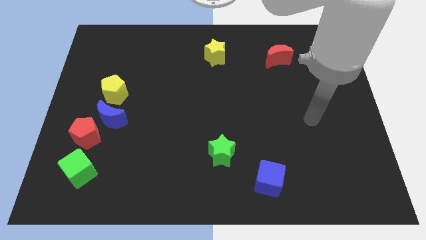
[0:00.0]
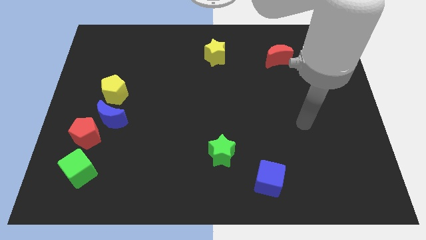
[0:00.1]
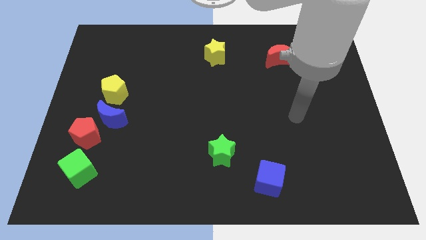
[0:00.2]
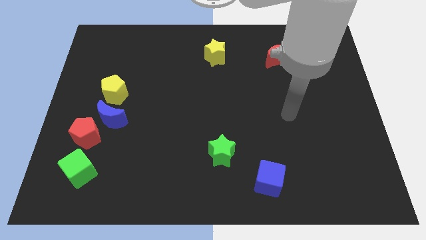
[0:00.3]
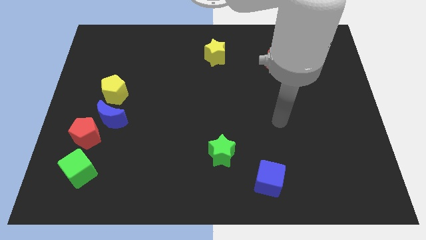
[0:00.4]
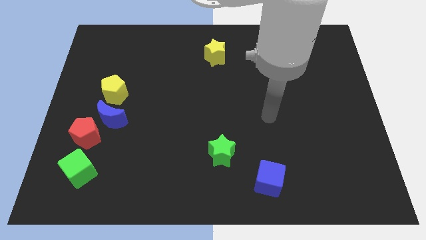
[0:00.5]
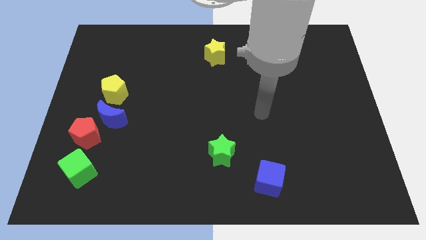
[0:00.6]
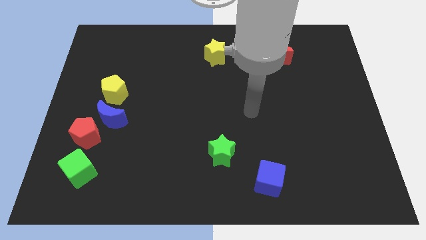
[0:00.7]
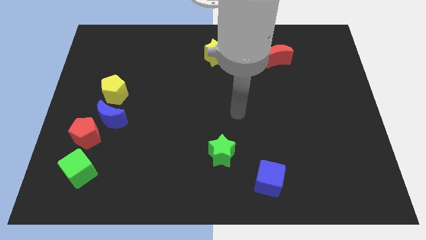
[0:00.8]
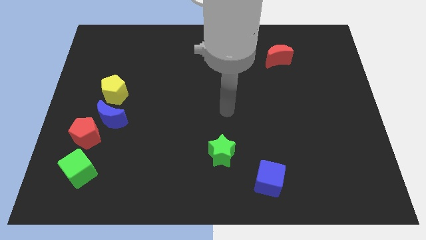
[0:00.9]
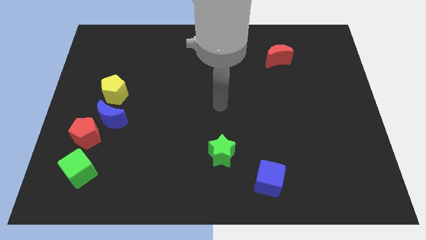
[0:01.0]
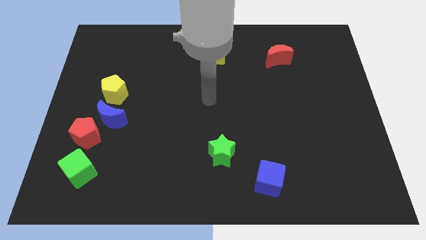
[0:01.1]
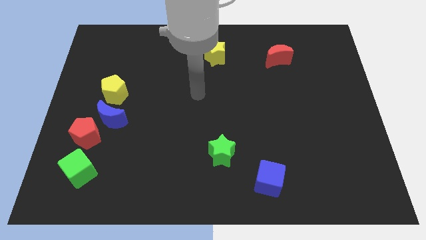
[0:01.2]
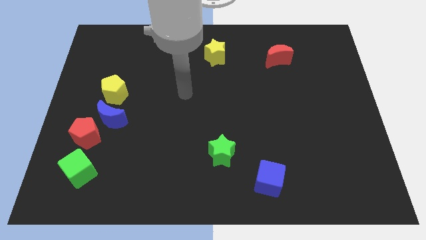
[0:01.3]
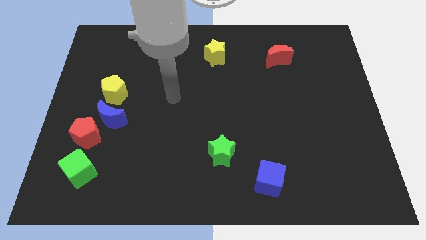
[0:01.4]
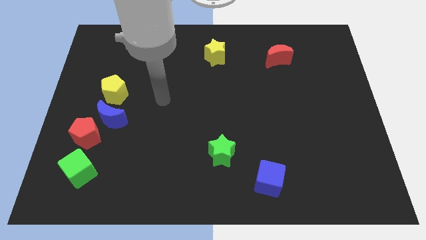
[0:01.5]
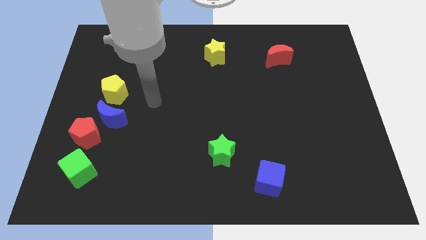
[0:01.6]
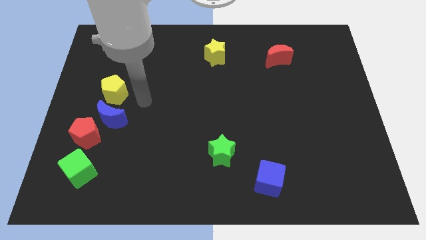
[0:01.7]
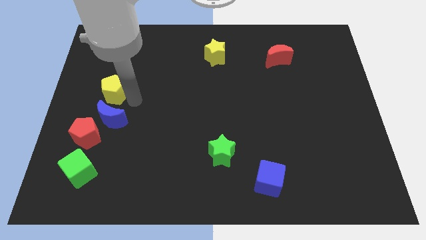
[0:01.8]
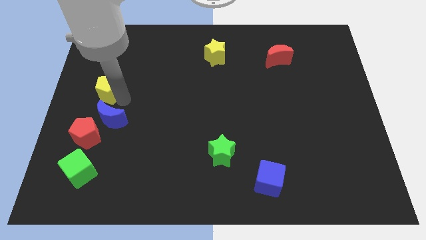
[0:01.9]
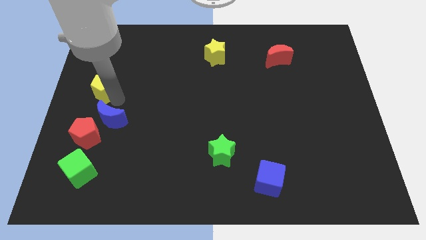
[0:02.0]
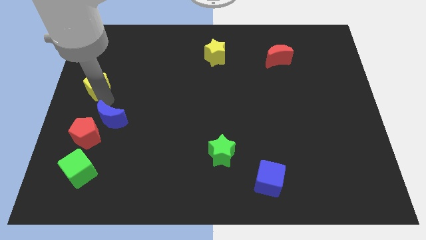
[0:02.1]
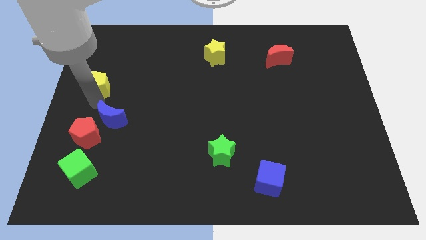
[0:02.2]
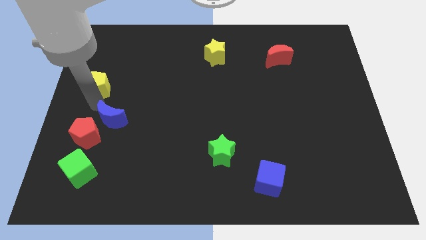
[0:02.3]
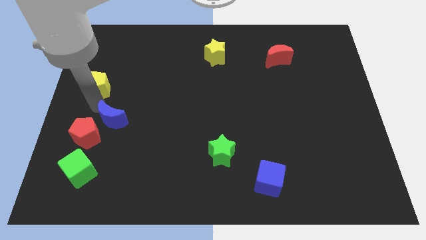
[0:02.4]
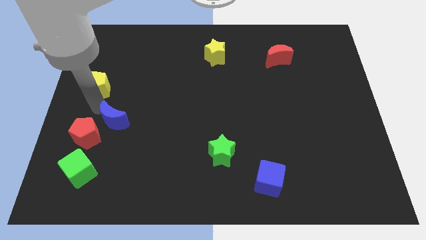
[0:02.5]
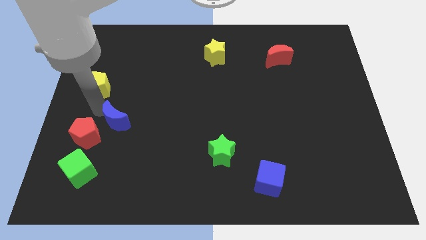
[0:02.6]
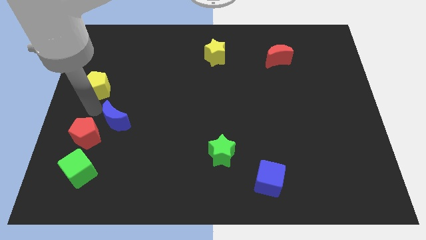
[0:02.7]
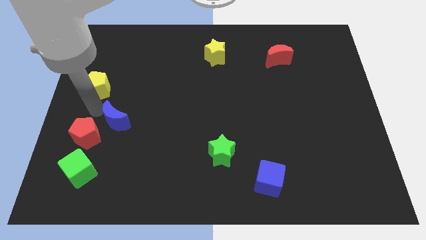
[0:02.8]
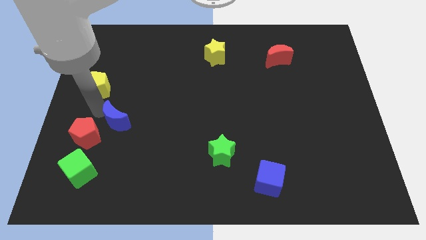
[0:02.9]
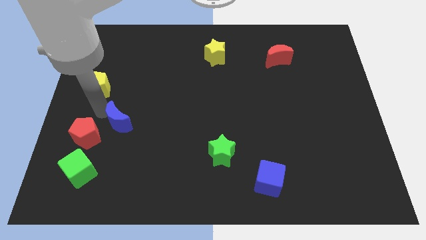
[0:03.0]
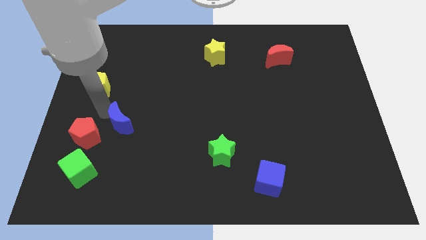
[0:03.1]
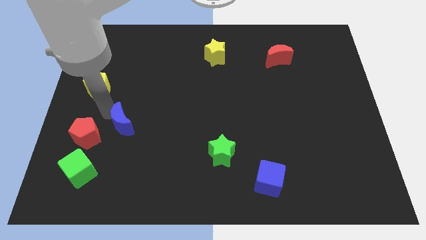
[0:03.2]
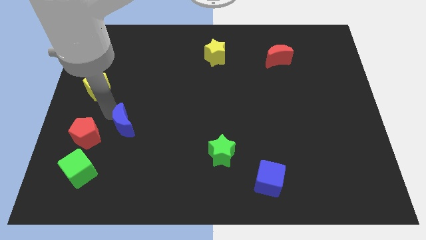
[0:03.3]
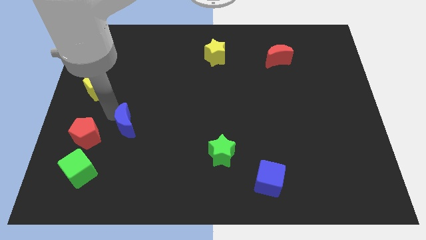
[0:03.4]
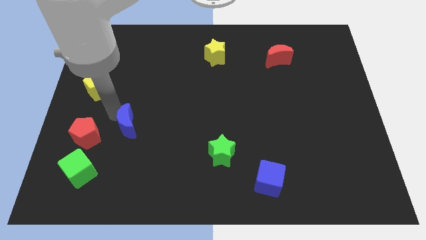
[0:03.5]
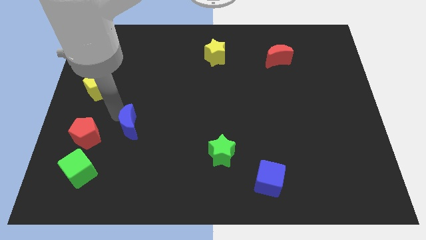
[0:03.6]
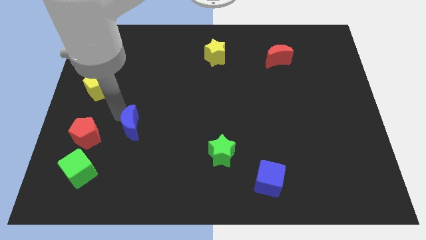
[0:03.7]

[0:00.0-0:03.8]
separate the blue moon from the red pentagon and yellow pentagon

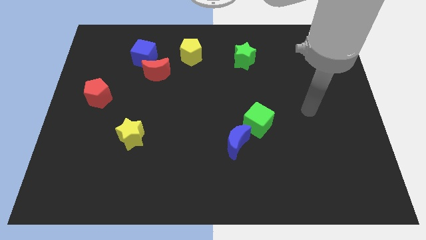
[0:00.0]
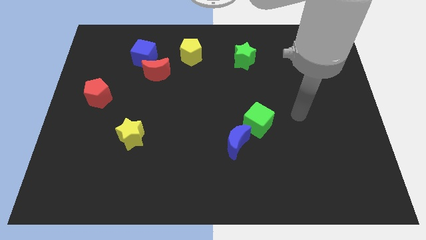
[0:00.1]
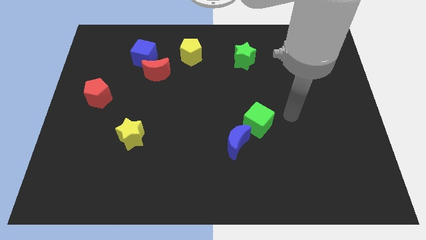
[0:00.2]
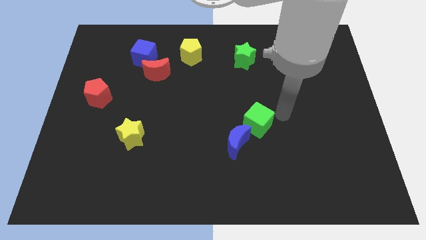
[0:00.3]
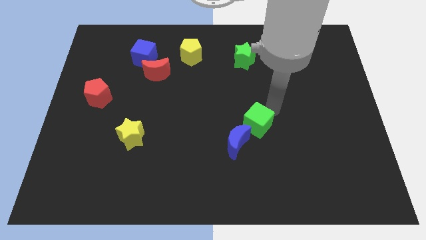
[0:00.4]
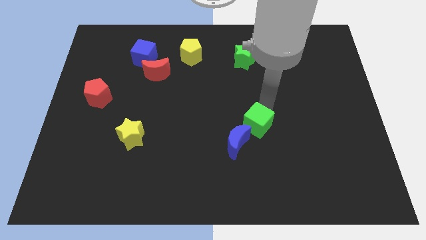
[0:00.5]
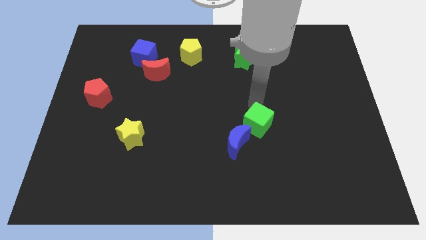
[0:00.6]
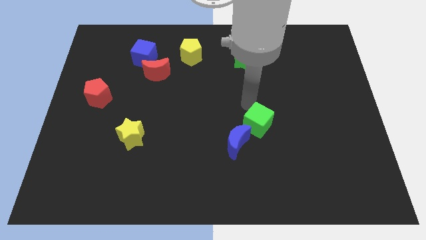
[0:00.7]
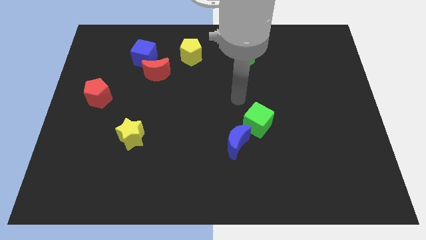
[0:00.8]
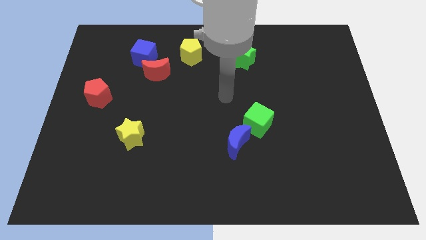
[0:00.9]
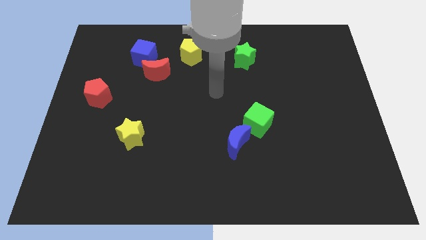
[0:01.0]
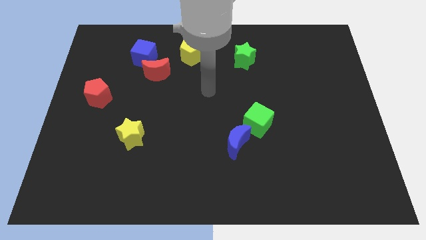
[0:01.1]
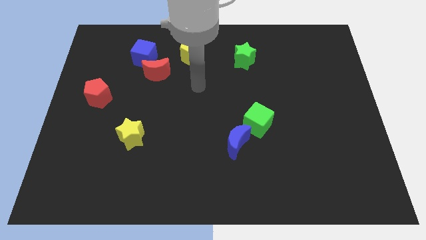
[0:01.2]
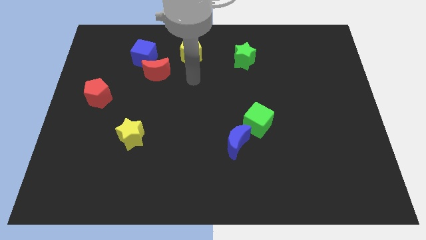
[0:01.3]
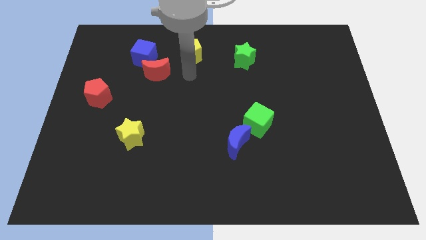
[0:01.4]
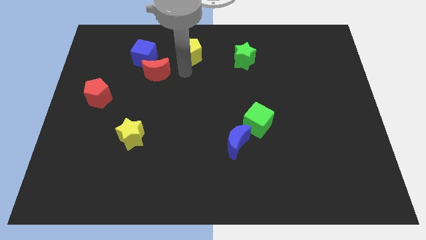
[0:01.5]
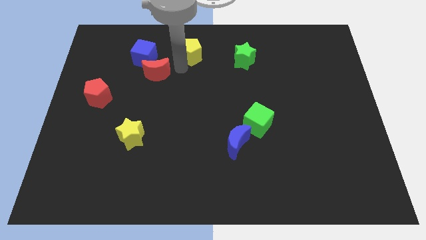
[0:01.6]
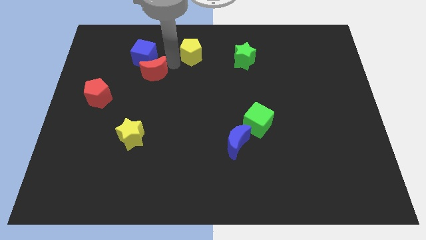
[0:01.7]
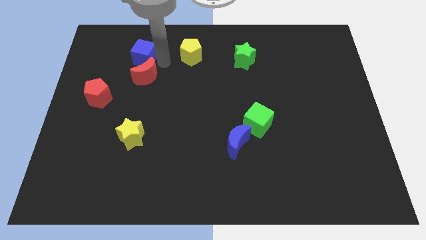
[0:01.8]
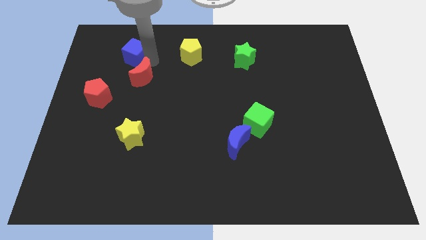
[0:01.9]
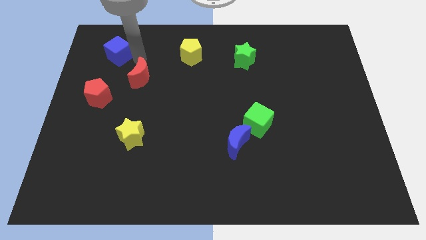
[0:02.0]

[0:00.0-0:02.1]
move the red moon away from the blue cube

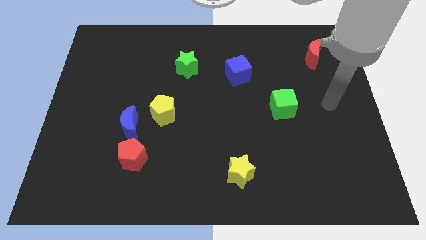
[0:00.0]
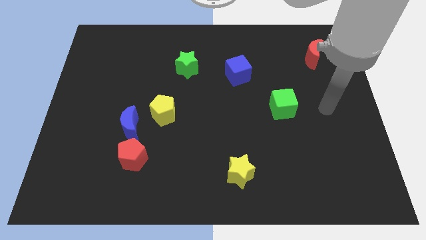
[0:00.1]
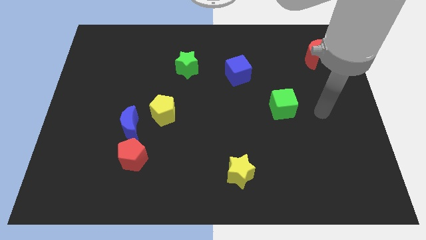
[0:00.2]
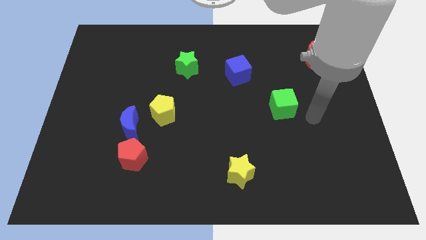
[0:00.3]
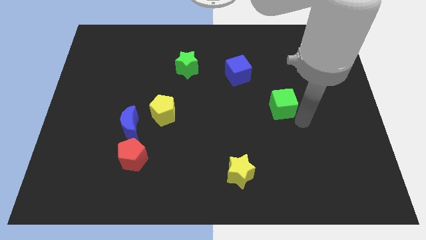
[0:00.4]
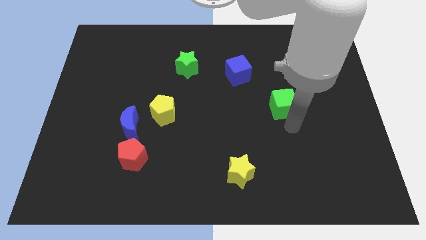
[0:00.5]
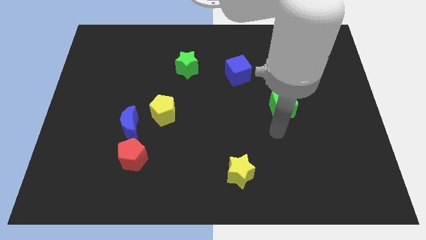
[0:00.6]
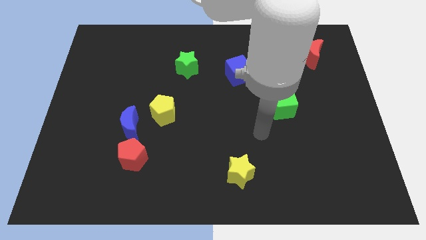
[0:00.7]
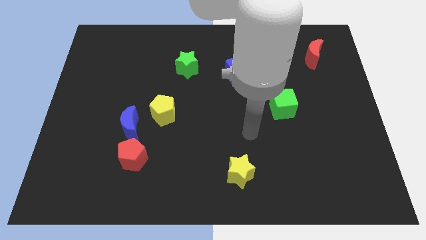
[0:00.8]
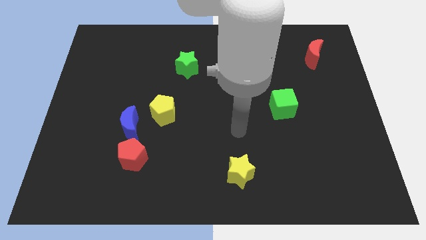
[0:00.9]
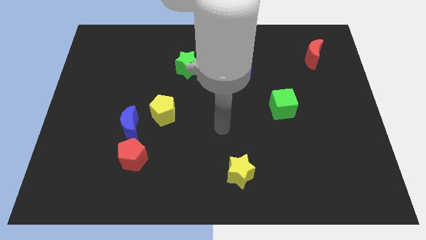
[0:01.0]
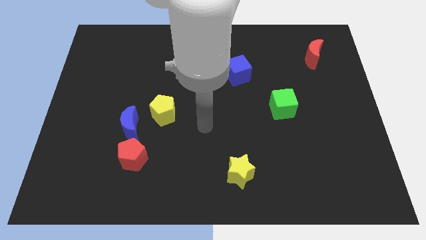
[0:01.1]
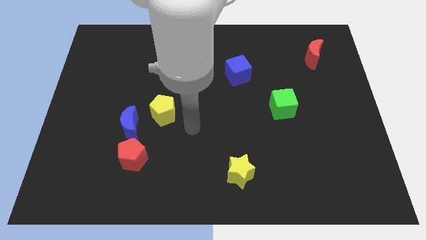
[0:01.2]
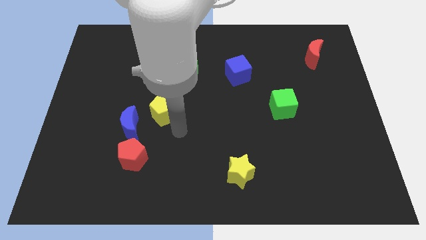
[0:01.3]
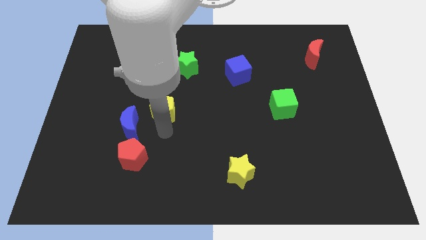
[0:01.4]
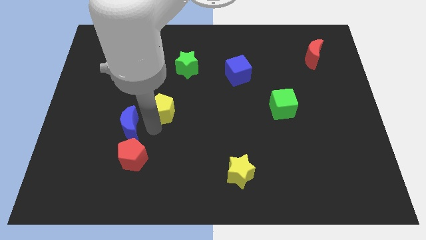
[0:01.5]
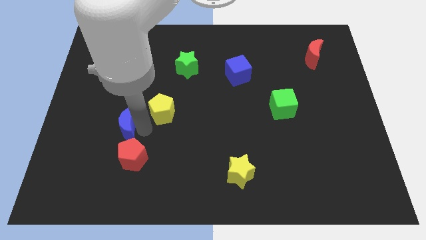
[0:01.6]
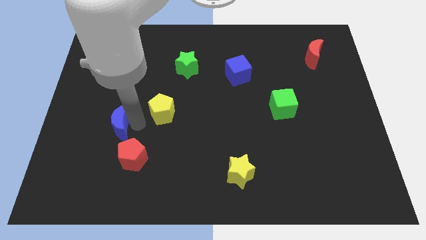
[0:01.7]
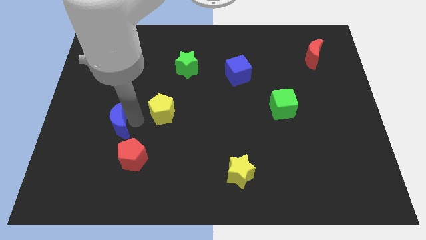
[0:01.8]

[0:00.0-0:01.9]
separate the yellow pentagon from the blue moon

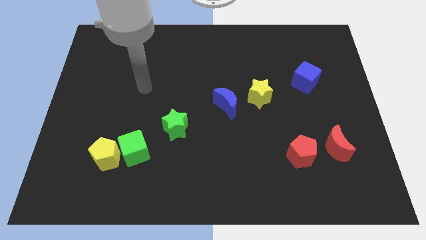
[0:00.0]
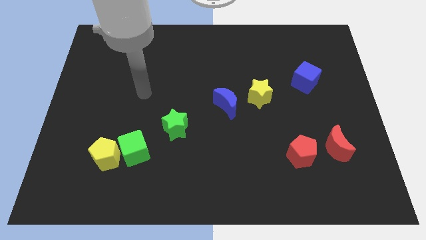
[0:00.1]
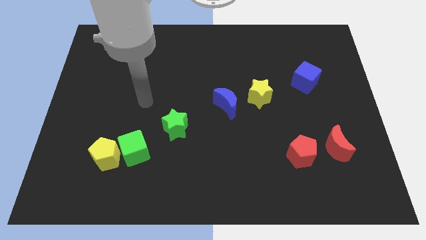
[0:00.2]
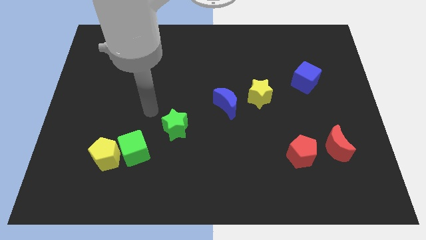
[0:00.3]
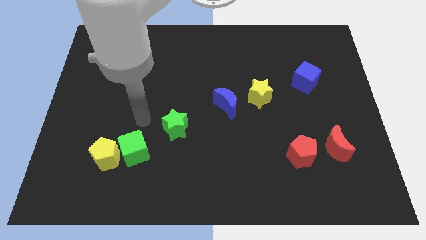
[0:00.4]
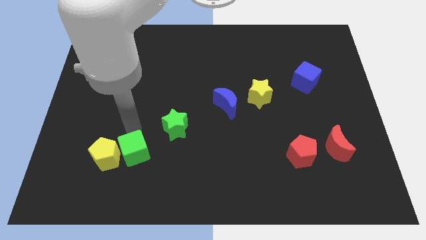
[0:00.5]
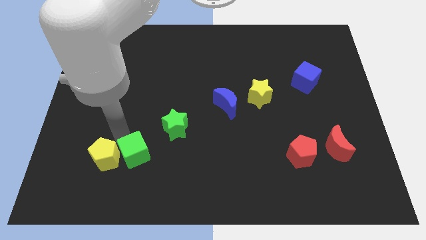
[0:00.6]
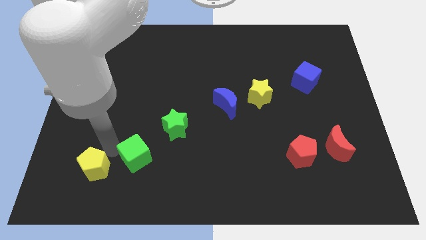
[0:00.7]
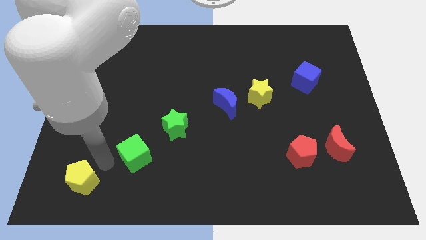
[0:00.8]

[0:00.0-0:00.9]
pull the green cube apart from the yellow pentagon

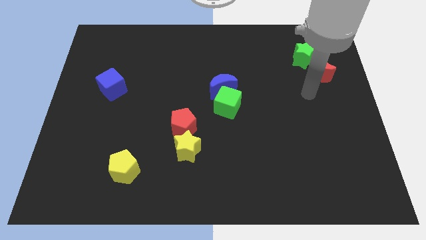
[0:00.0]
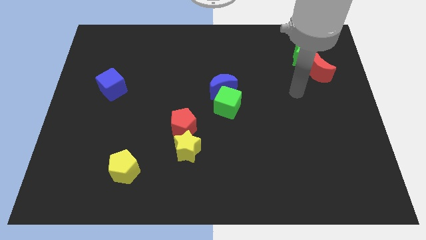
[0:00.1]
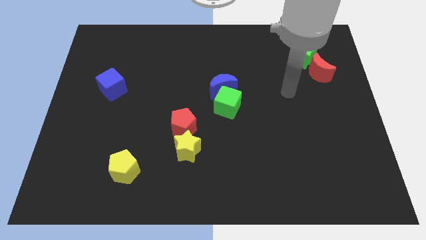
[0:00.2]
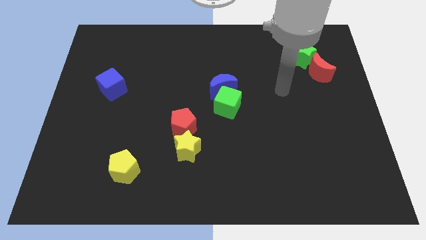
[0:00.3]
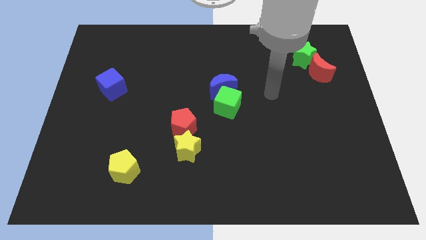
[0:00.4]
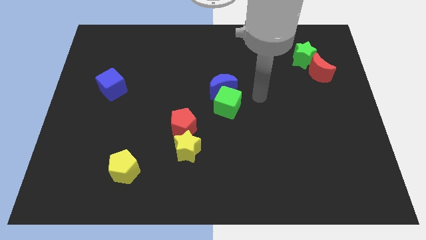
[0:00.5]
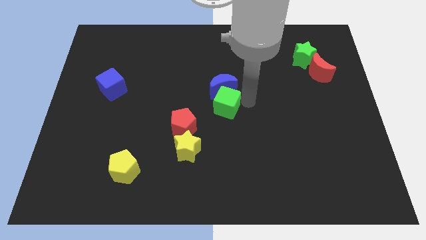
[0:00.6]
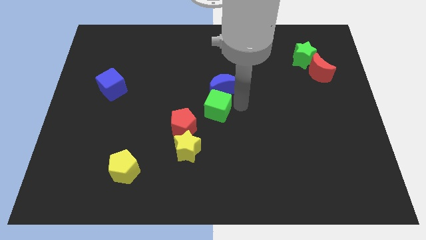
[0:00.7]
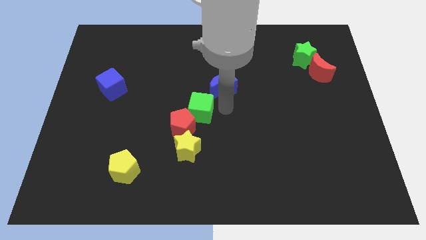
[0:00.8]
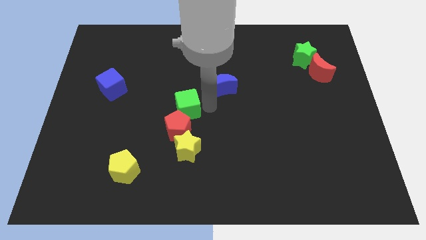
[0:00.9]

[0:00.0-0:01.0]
pull the blue moon apart from the green cube
